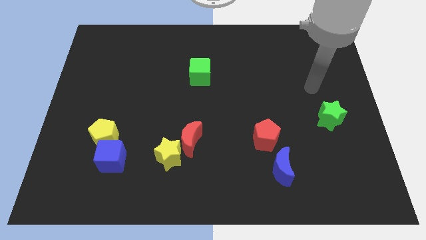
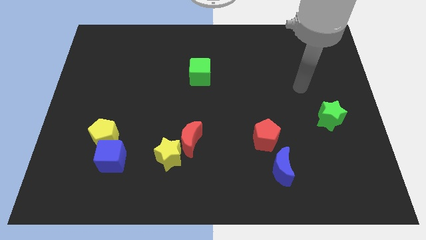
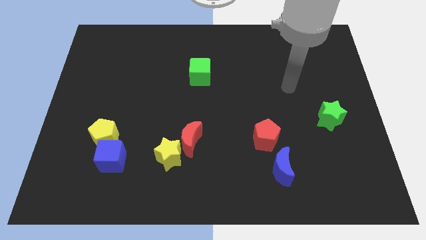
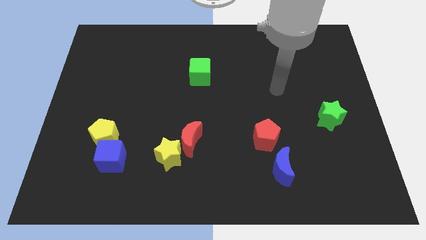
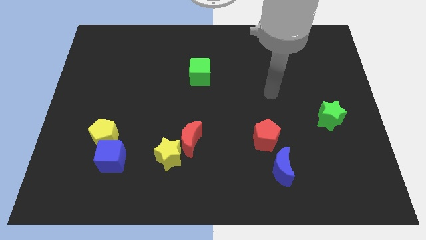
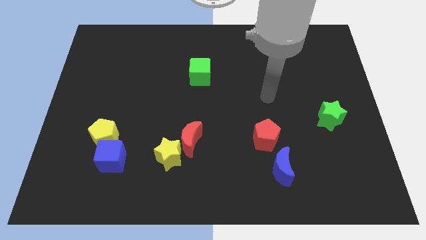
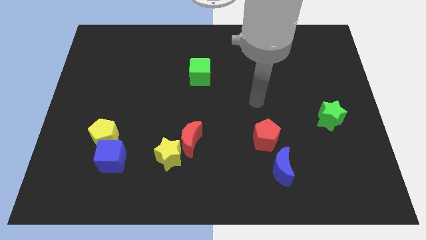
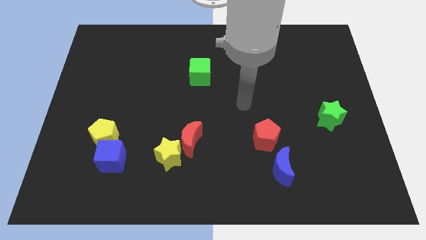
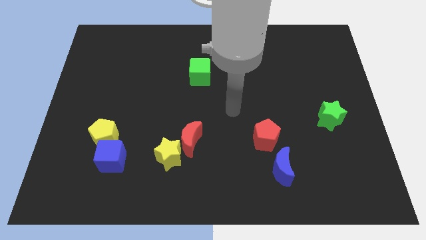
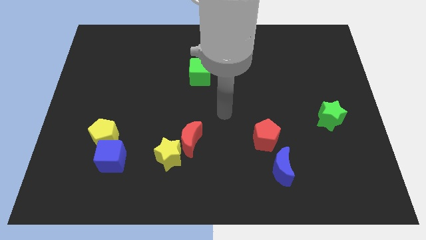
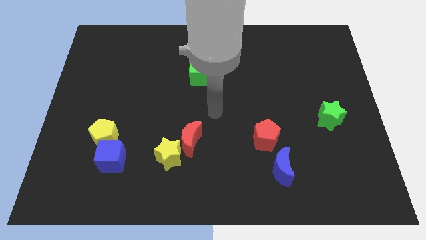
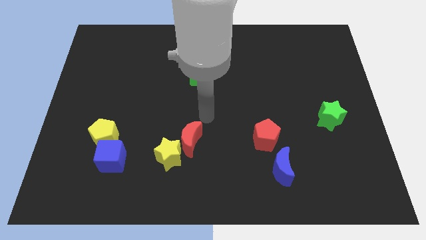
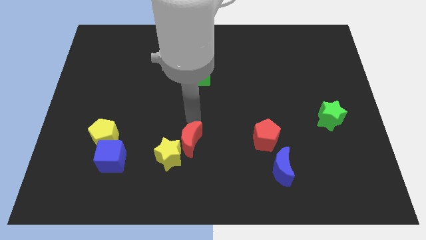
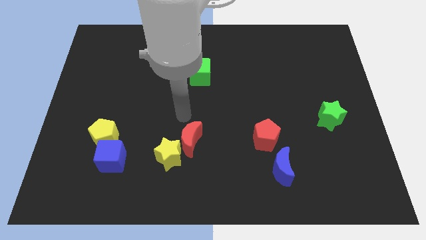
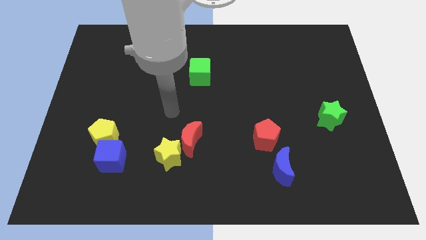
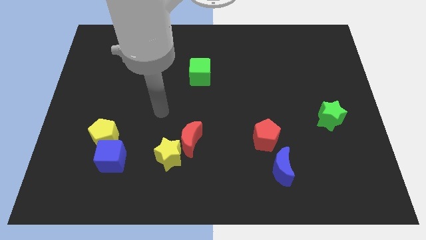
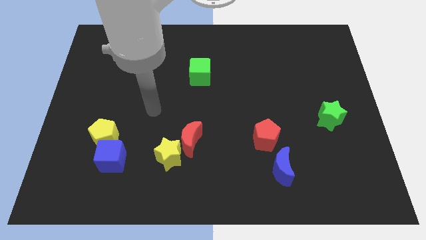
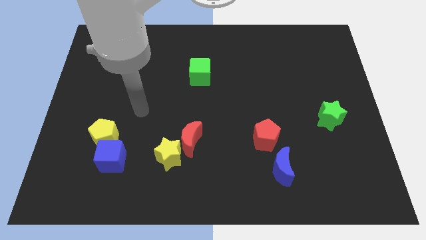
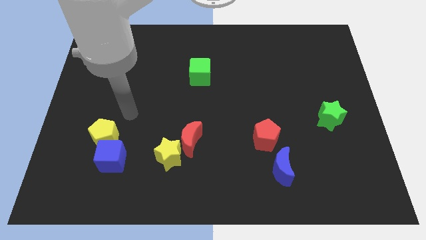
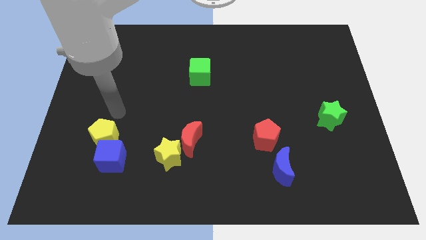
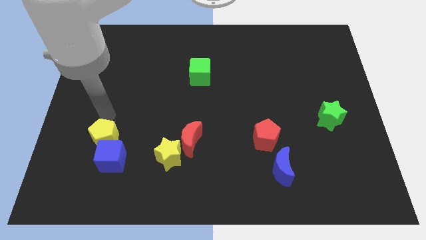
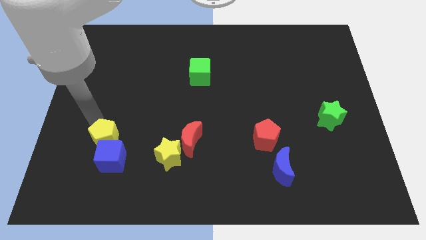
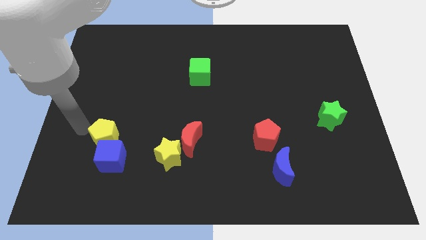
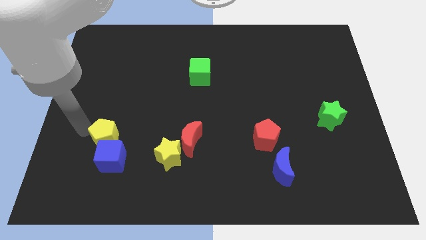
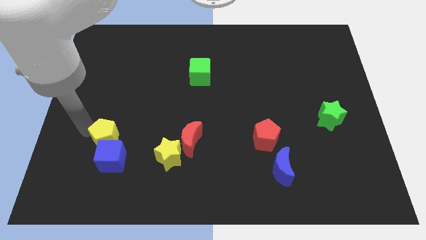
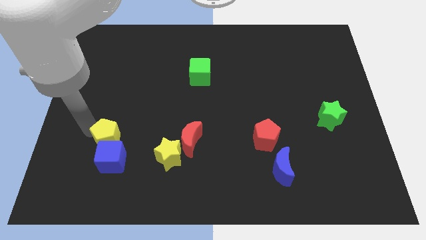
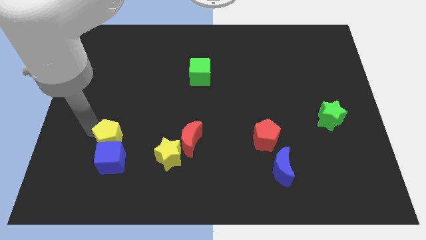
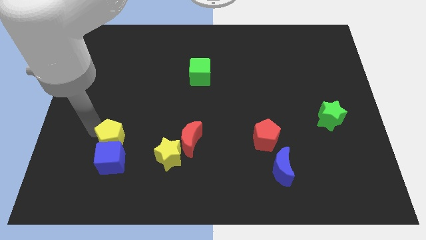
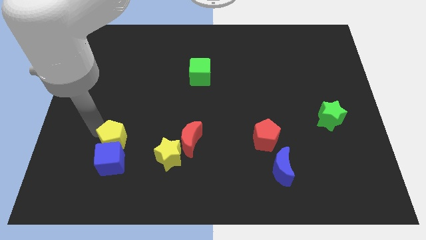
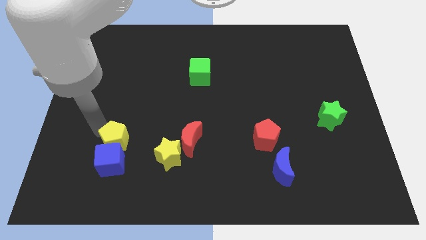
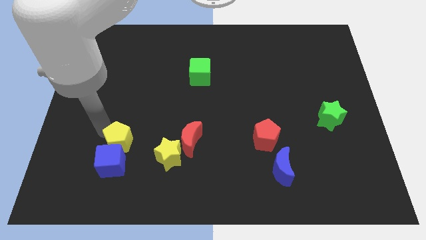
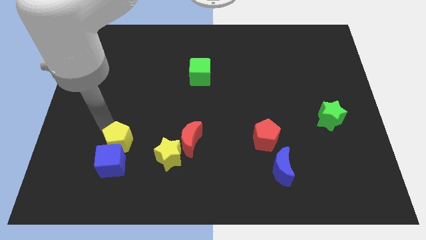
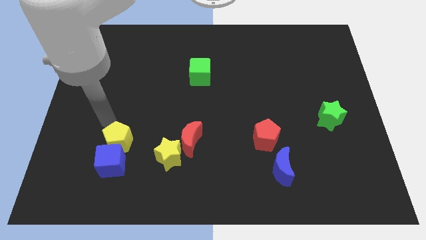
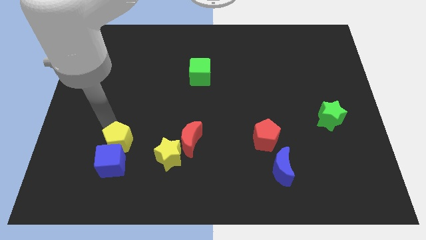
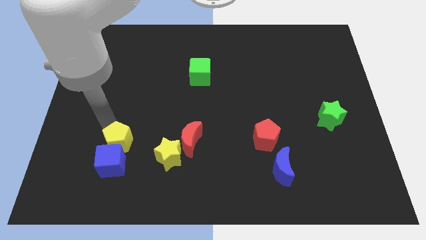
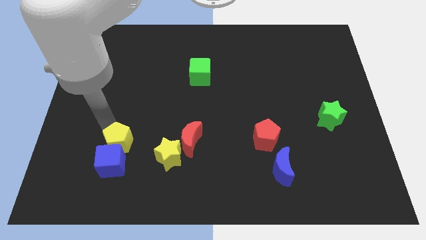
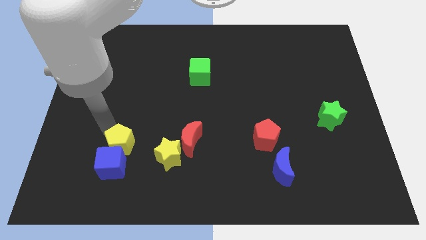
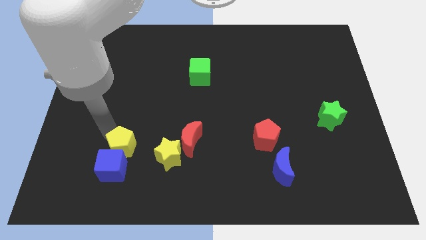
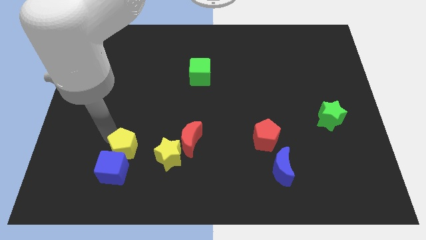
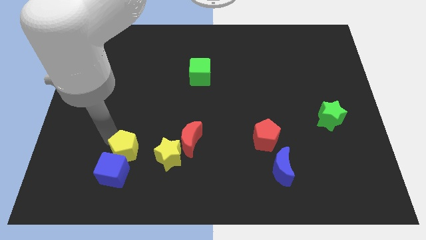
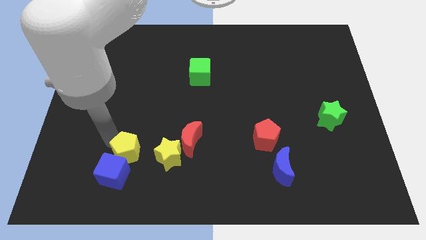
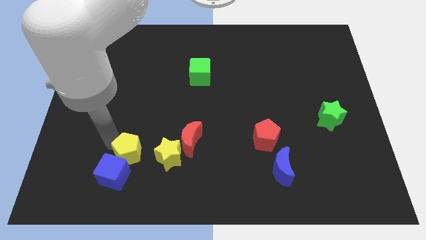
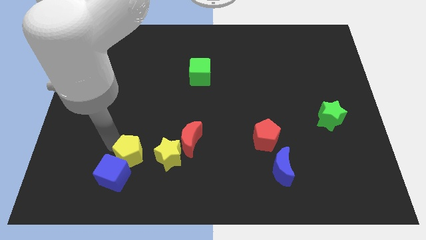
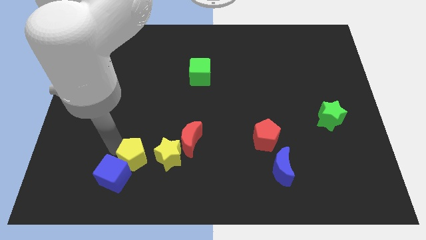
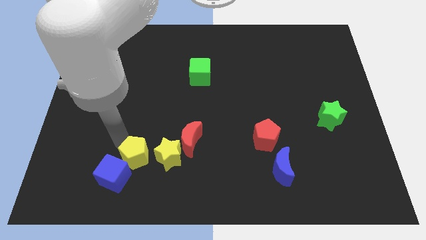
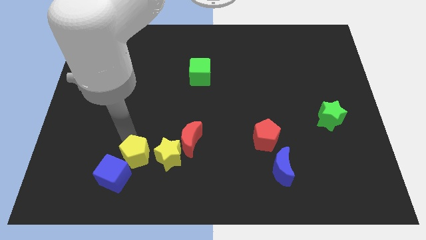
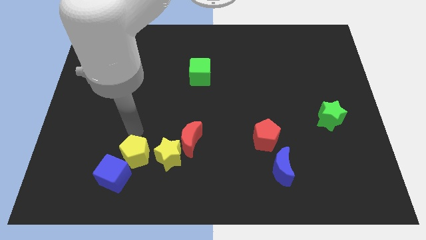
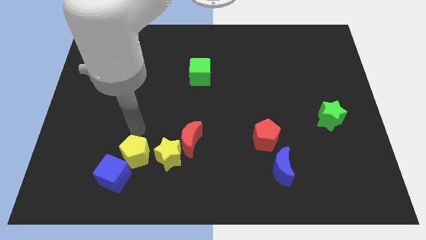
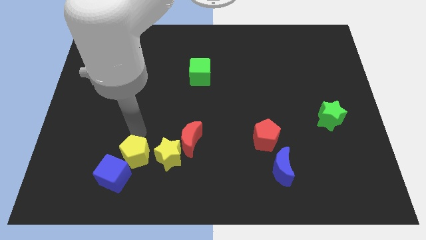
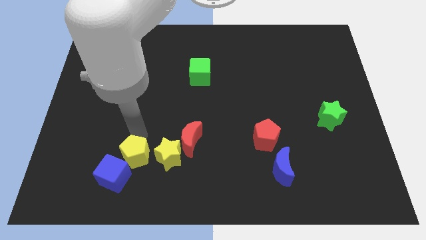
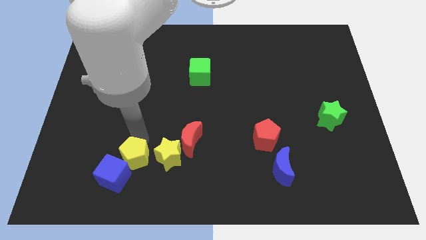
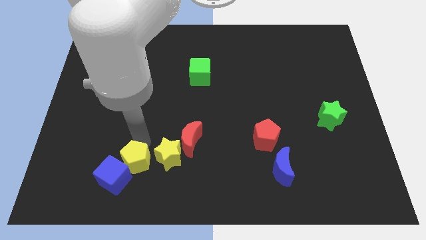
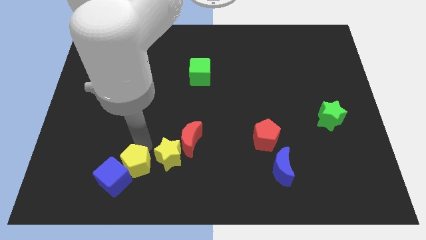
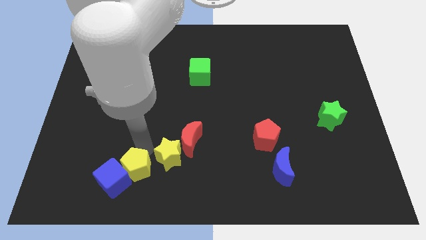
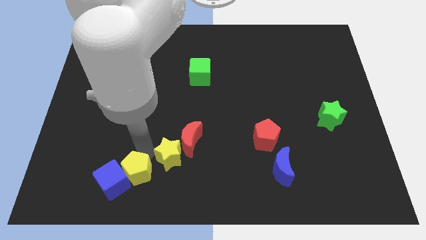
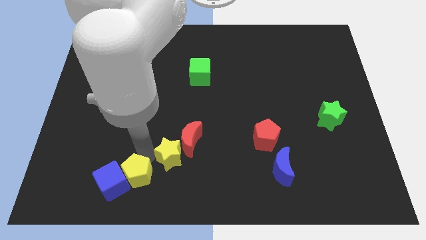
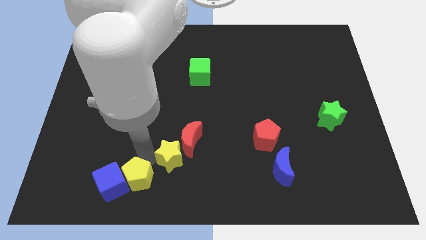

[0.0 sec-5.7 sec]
move the yellow pentagon diagonally down and to the right of the blue cube
